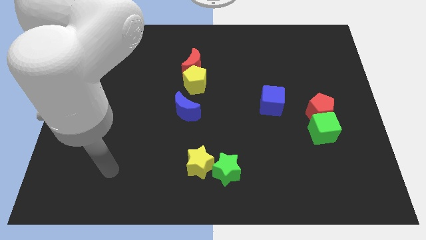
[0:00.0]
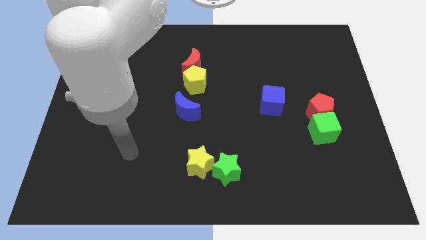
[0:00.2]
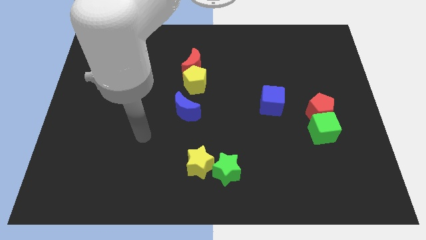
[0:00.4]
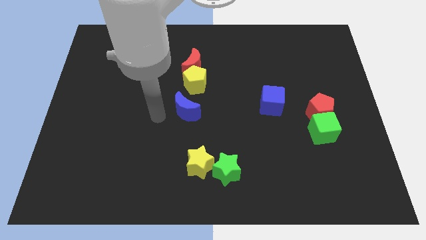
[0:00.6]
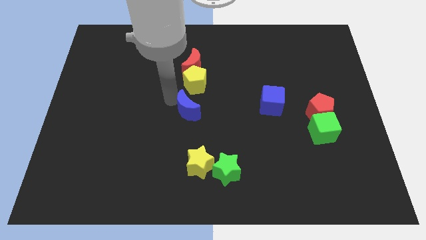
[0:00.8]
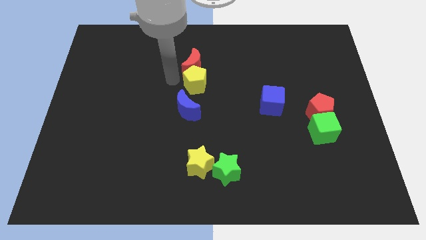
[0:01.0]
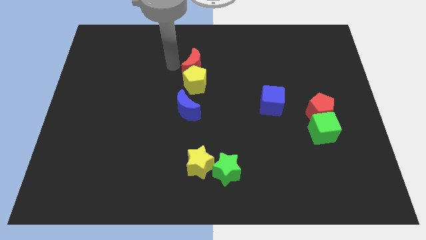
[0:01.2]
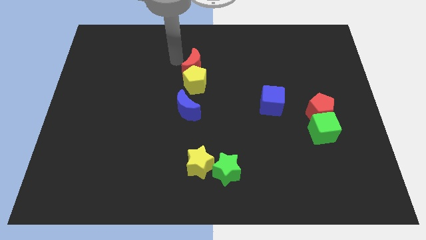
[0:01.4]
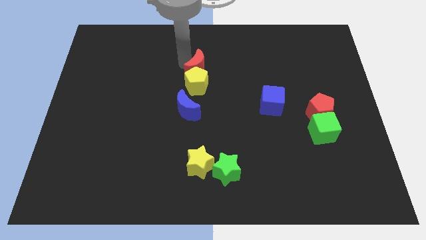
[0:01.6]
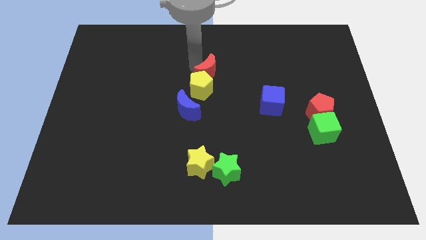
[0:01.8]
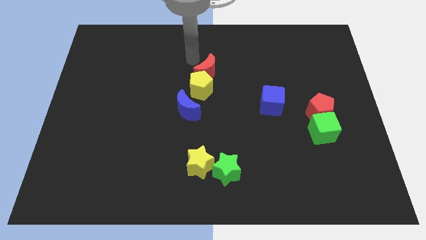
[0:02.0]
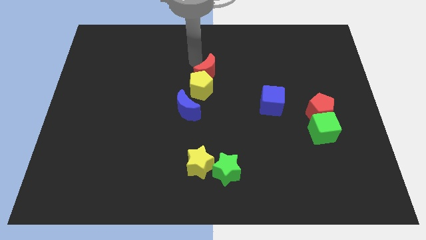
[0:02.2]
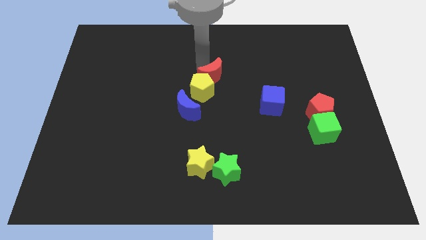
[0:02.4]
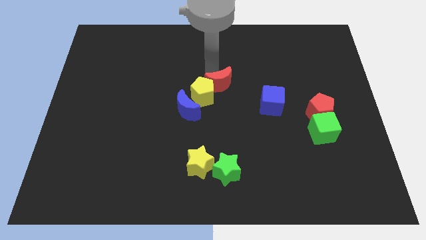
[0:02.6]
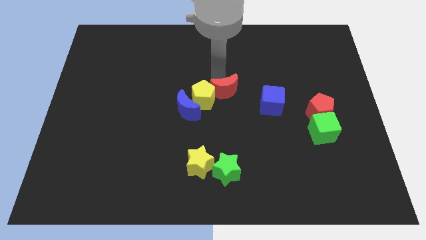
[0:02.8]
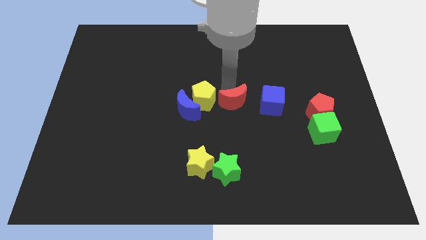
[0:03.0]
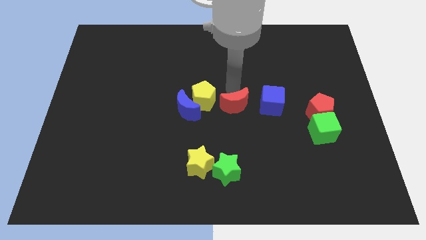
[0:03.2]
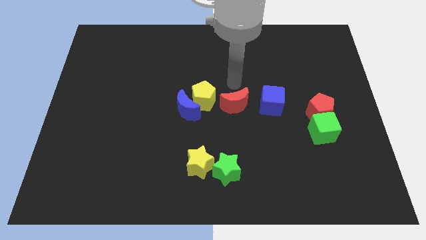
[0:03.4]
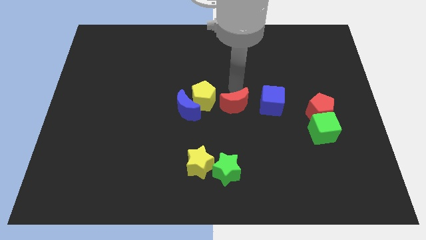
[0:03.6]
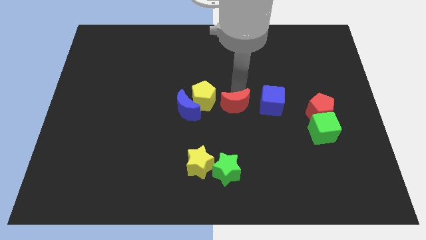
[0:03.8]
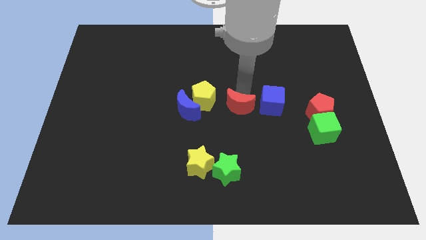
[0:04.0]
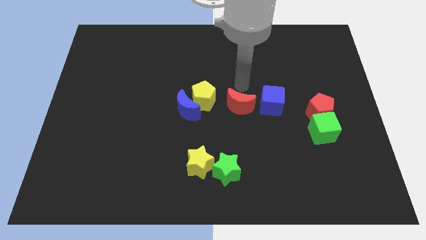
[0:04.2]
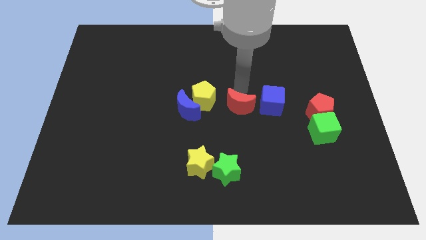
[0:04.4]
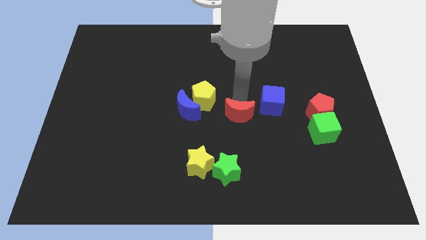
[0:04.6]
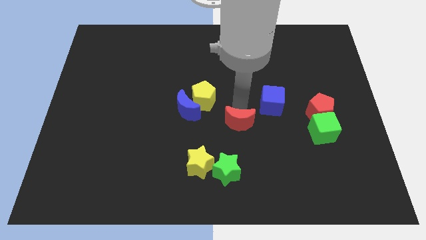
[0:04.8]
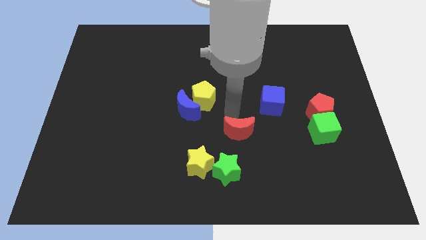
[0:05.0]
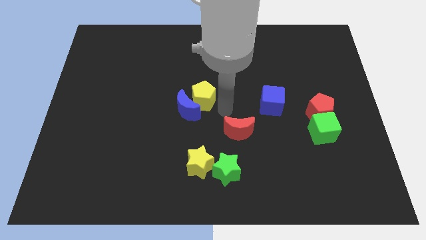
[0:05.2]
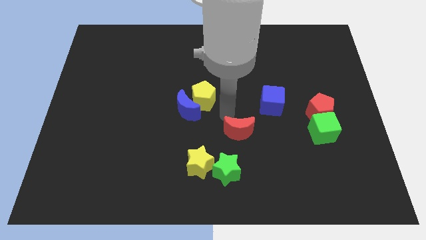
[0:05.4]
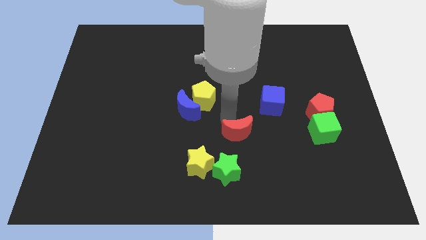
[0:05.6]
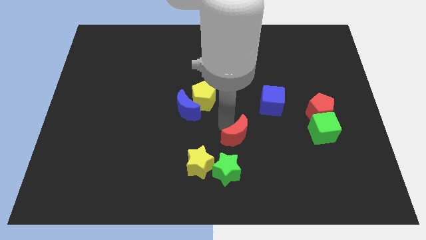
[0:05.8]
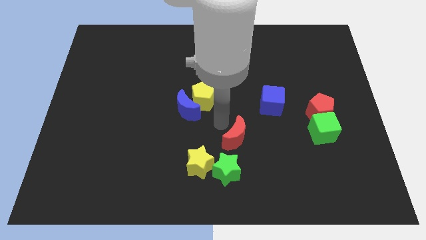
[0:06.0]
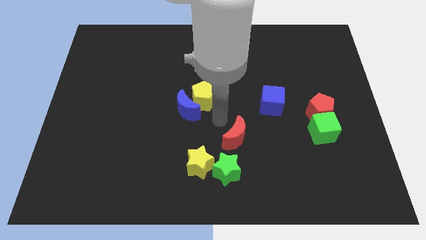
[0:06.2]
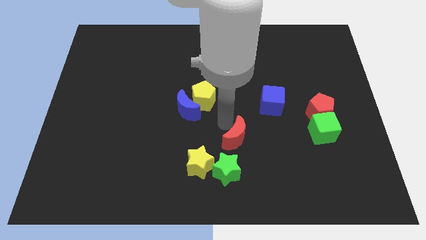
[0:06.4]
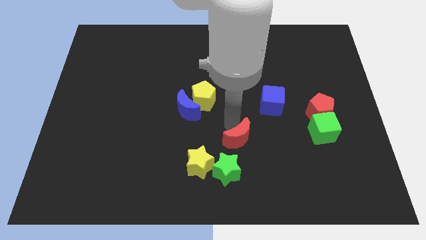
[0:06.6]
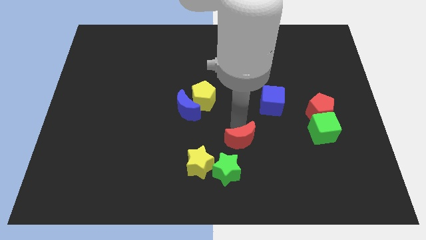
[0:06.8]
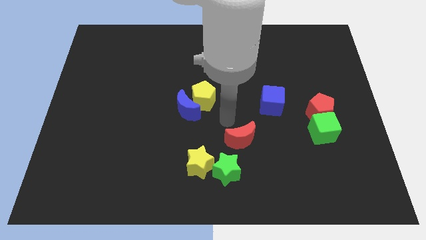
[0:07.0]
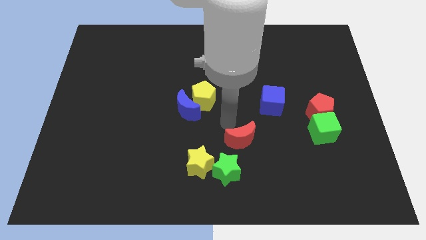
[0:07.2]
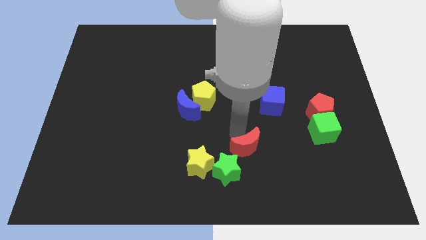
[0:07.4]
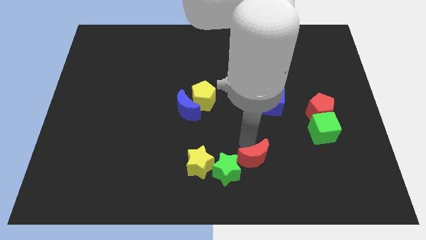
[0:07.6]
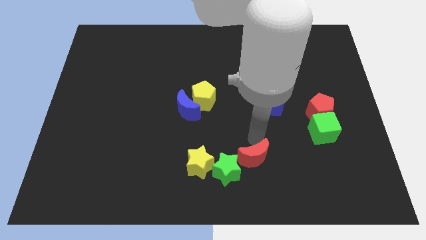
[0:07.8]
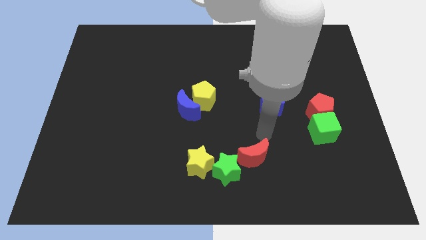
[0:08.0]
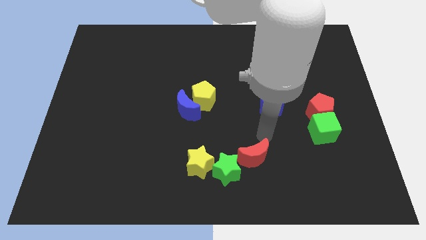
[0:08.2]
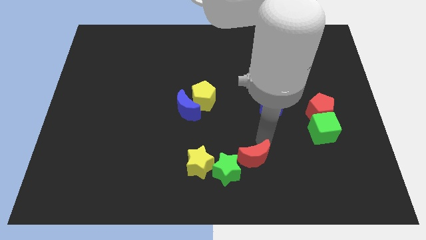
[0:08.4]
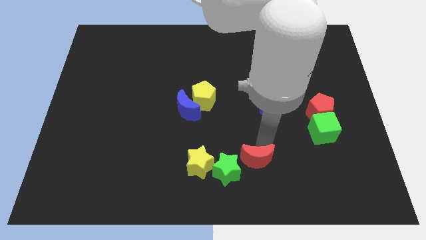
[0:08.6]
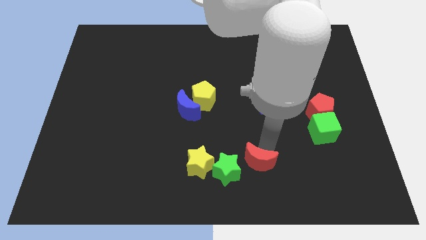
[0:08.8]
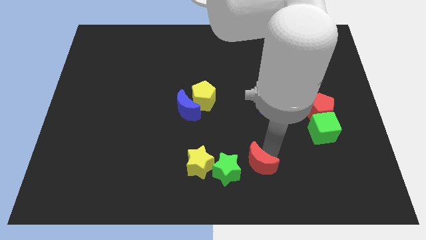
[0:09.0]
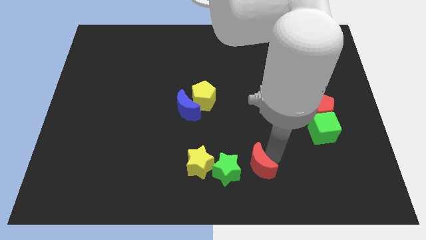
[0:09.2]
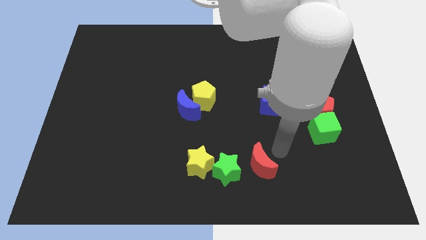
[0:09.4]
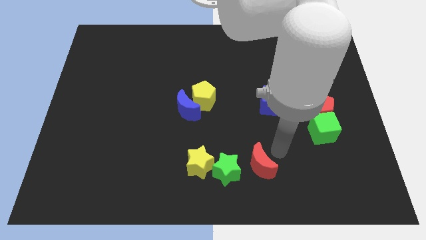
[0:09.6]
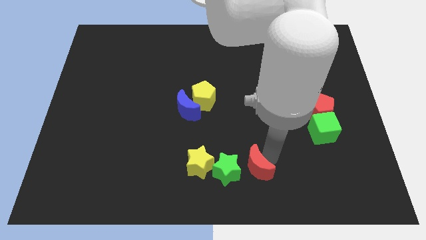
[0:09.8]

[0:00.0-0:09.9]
slide the red moon to the bottom side

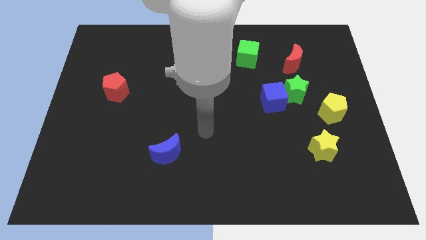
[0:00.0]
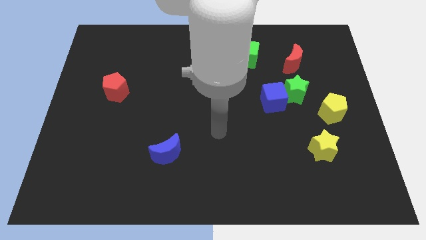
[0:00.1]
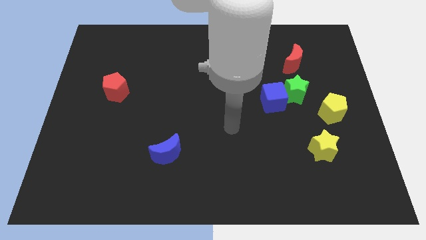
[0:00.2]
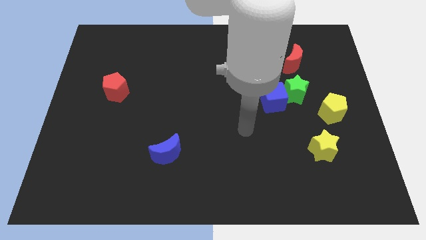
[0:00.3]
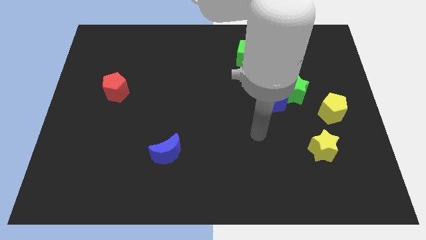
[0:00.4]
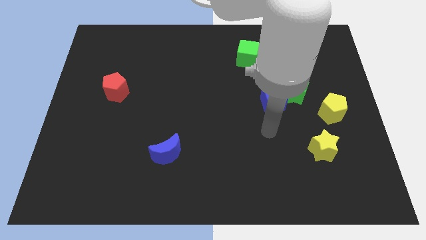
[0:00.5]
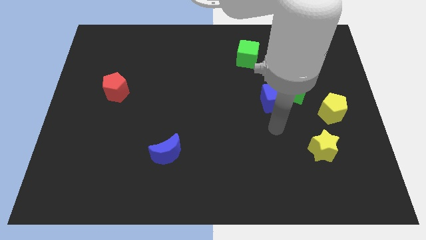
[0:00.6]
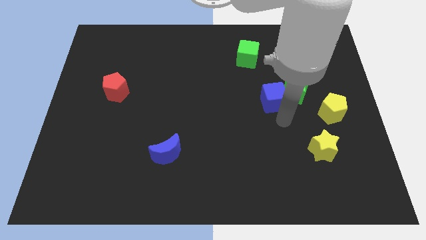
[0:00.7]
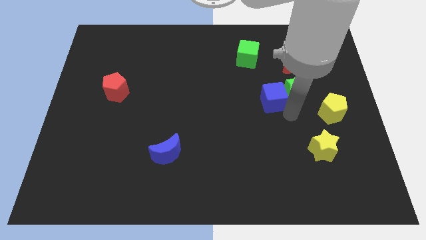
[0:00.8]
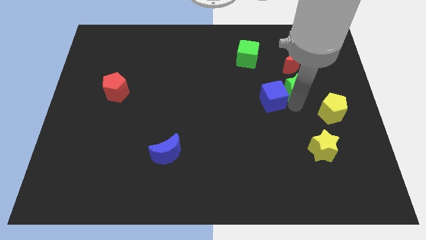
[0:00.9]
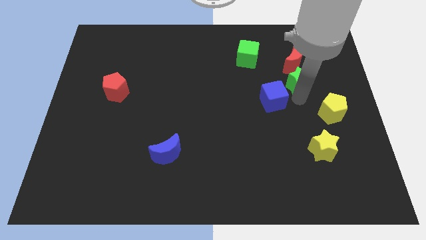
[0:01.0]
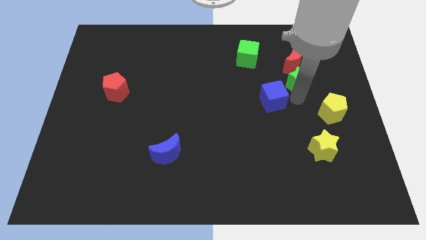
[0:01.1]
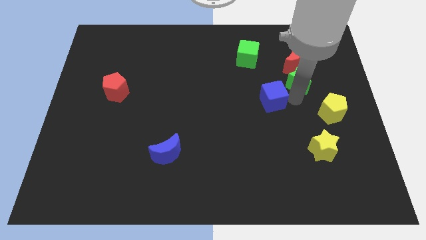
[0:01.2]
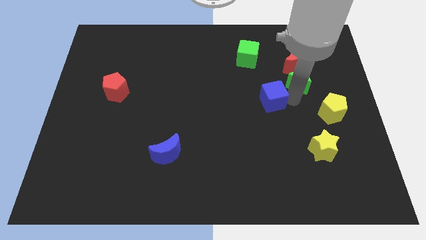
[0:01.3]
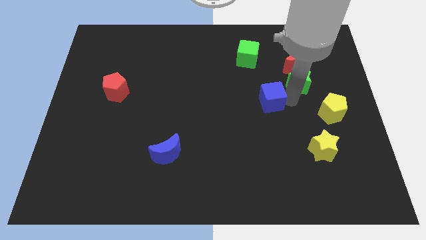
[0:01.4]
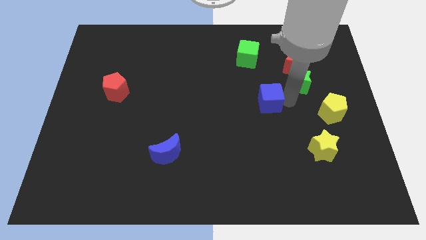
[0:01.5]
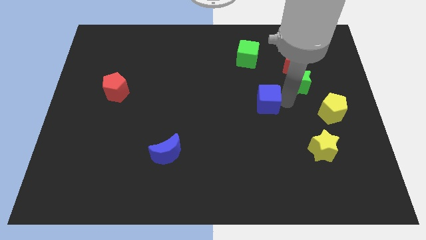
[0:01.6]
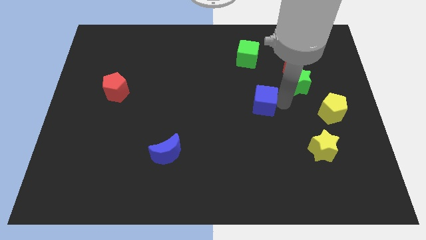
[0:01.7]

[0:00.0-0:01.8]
push the blue cube to the center
